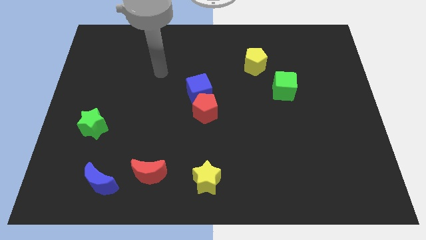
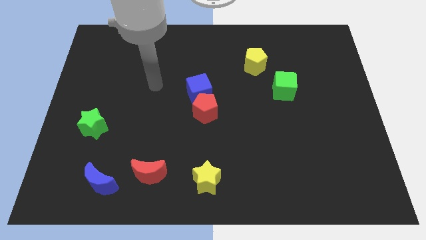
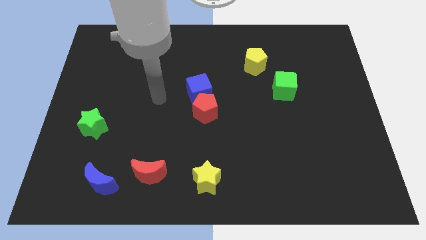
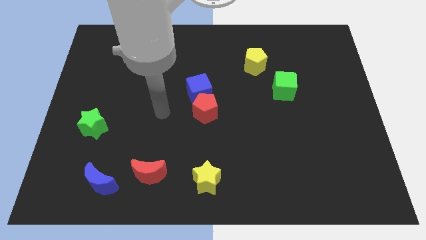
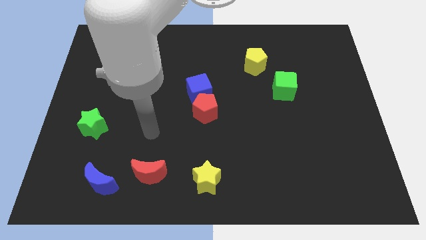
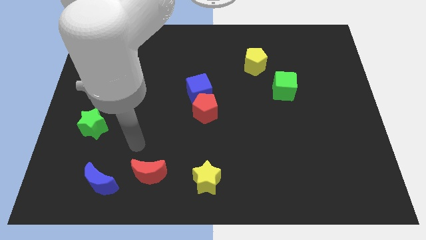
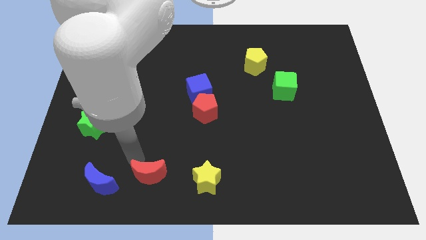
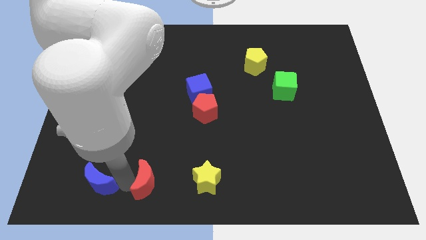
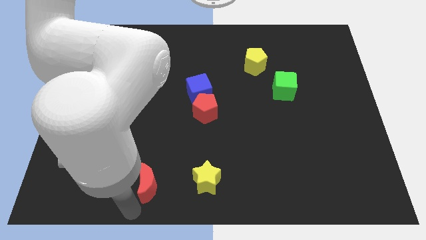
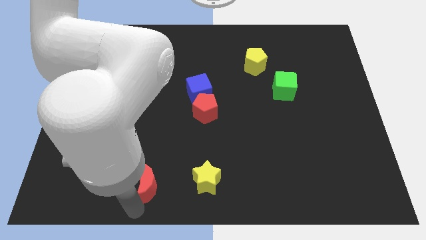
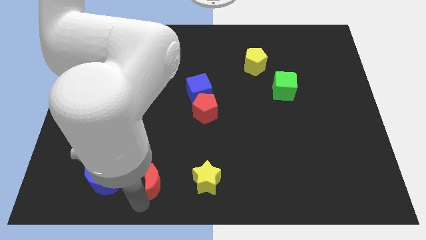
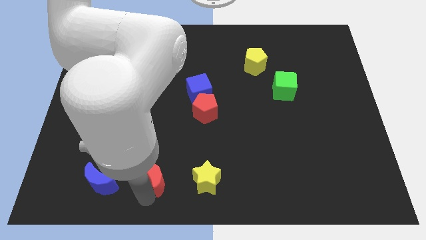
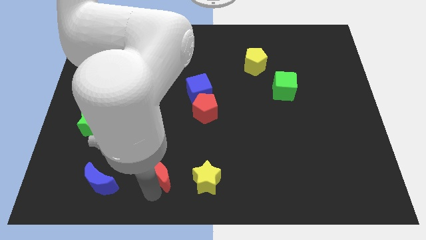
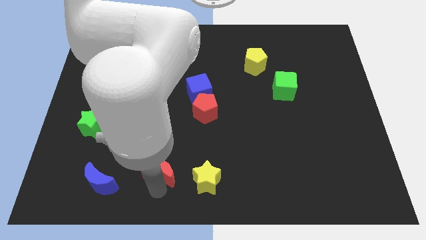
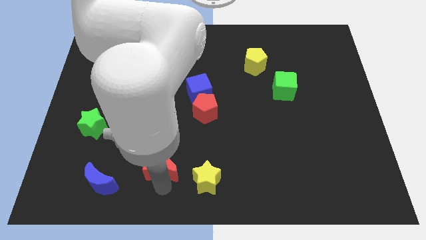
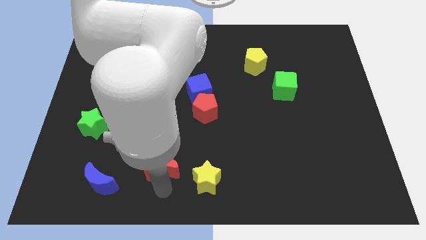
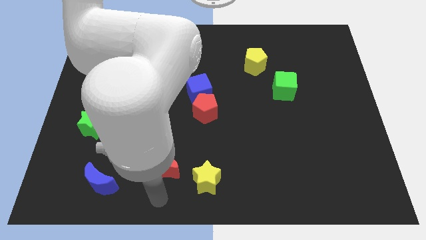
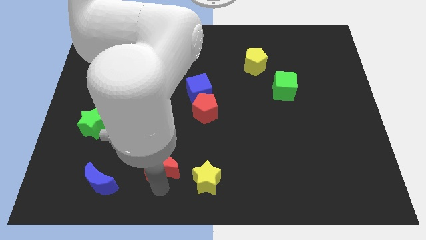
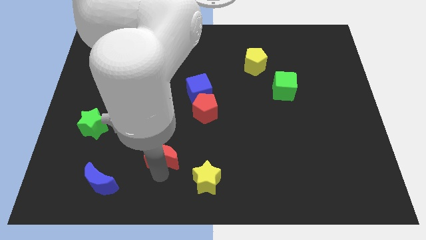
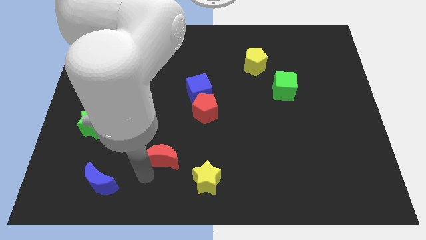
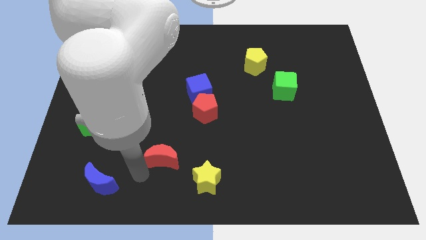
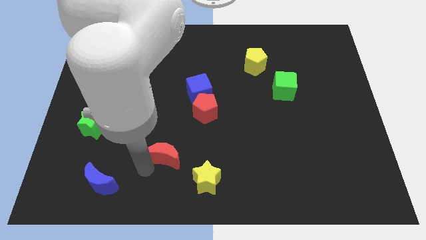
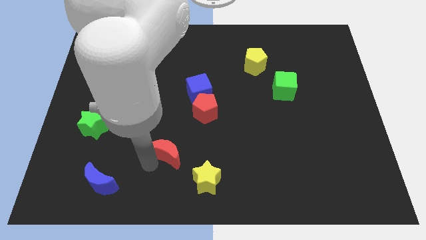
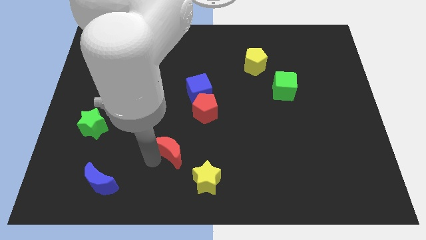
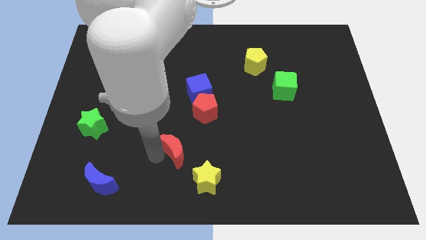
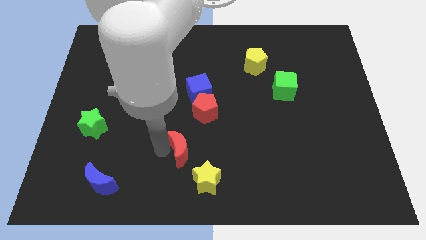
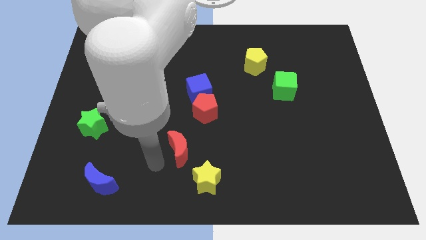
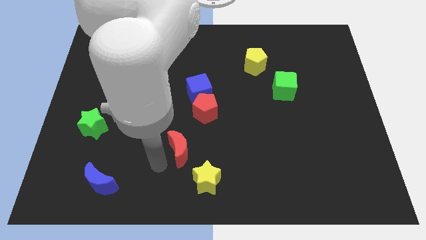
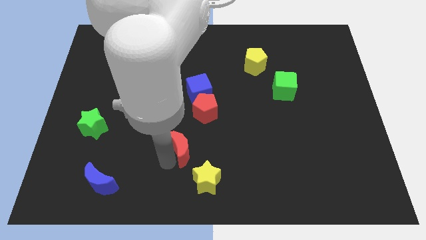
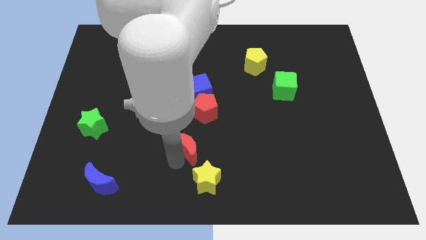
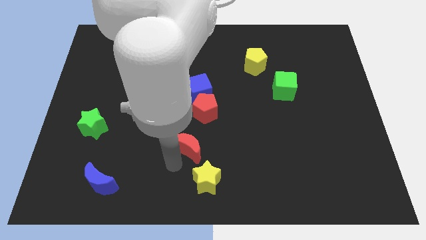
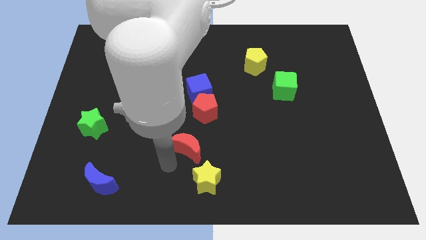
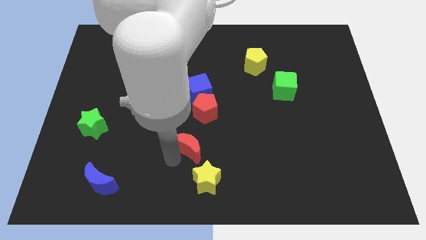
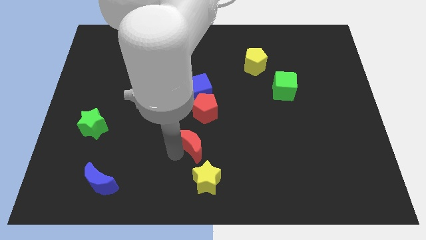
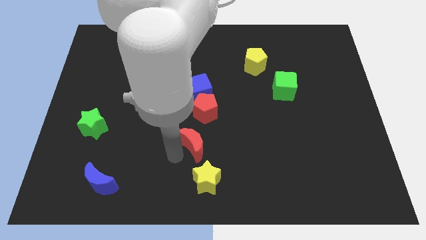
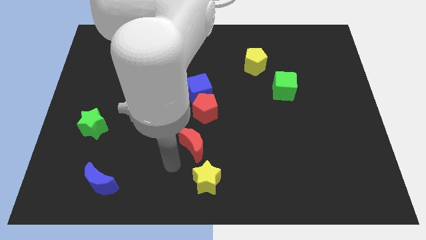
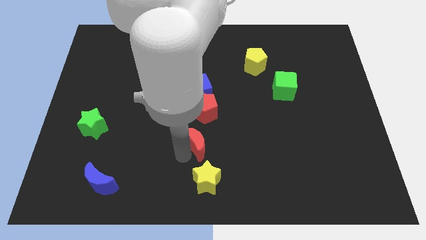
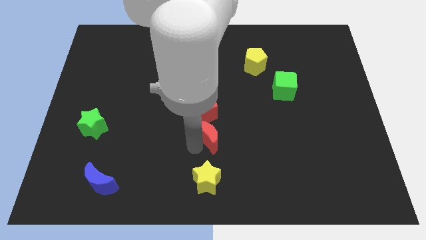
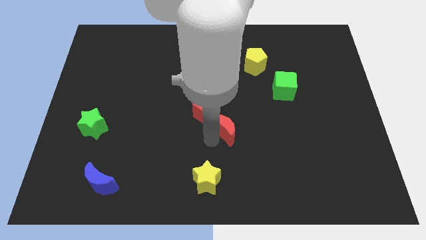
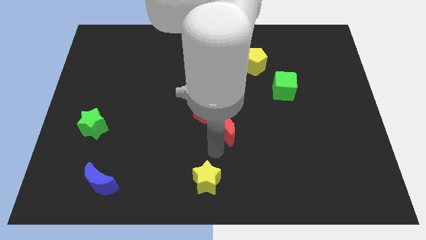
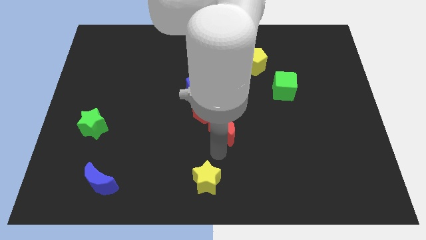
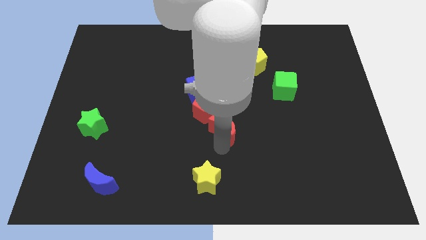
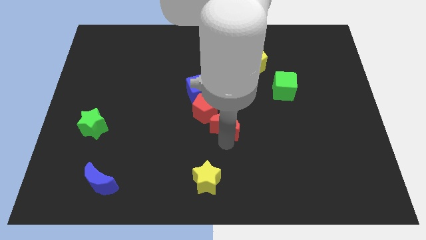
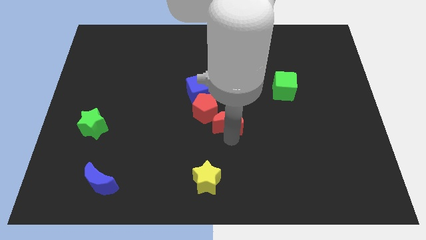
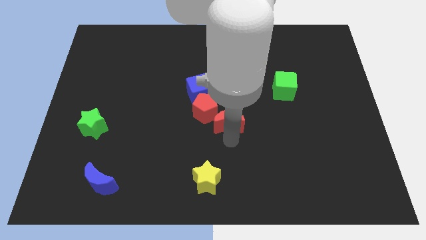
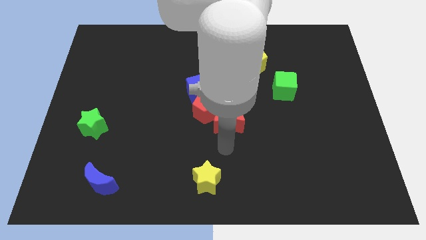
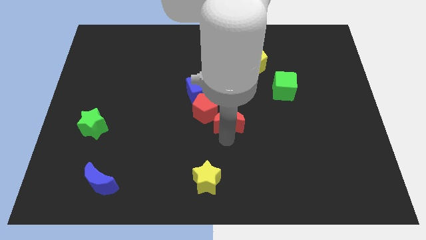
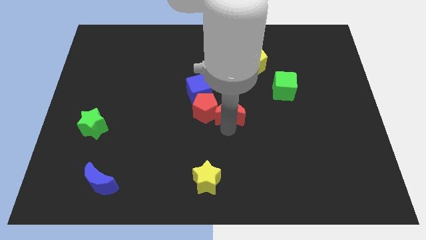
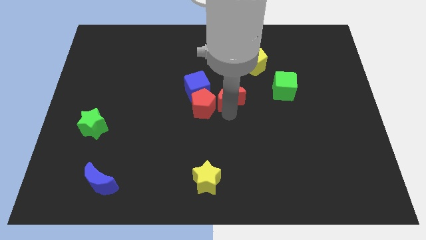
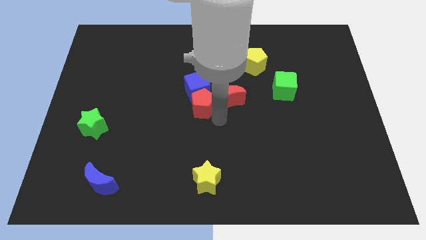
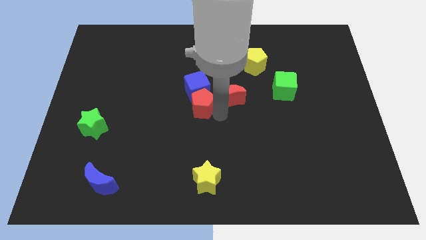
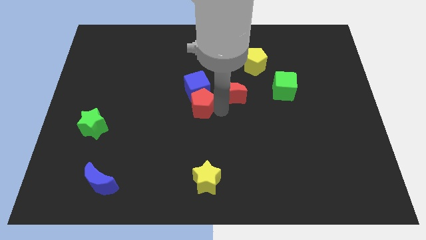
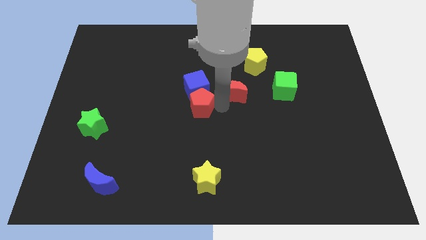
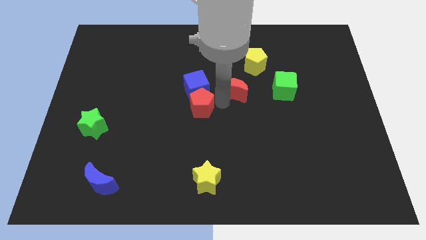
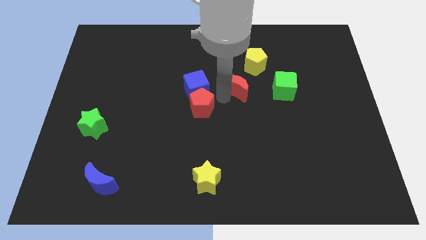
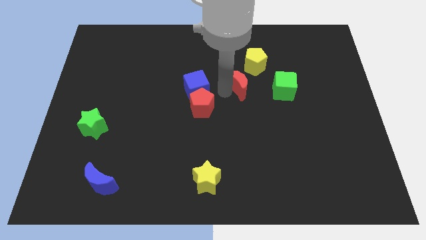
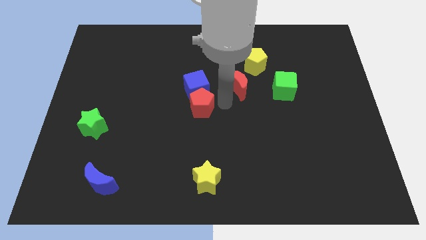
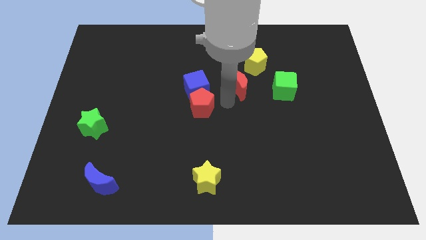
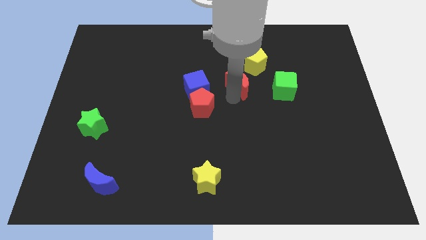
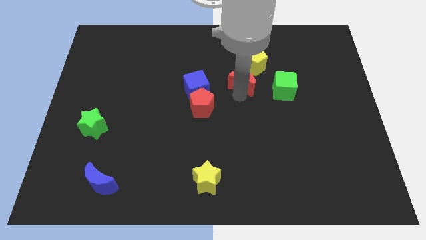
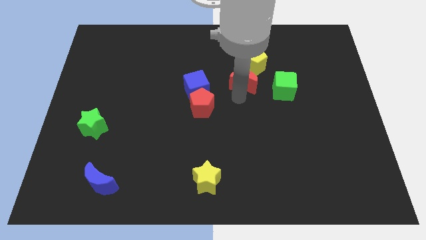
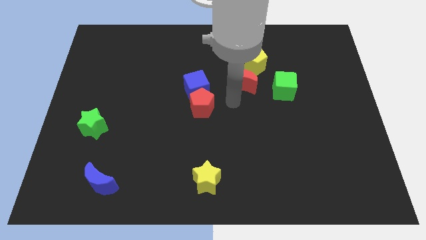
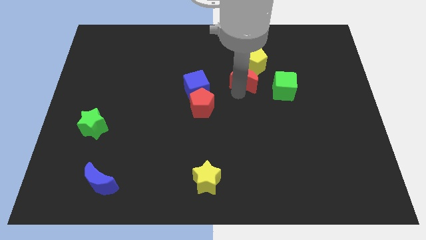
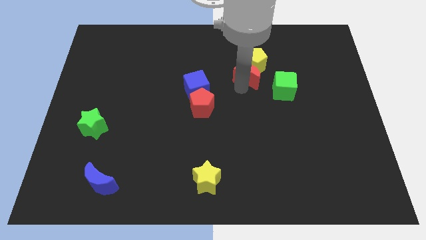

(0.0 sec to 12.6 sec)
move the red moon to the yellow pentagon

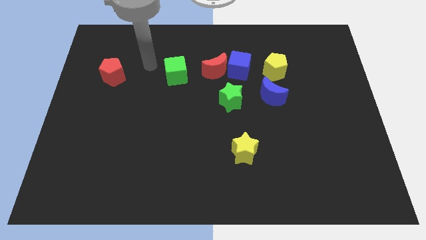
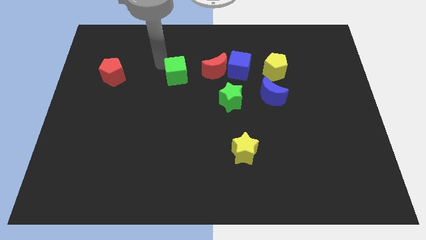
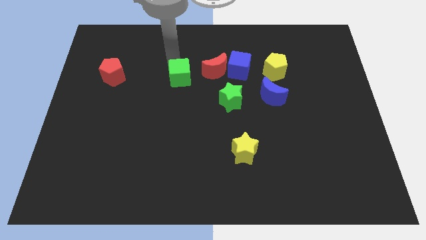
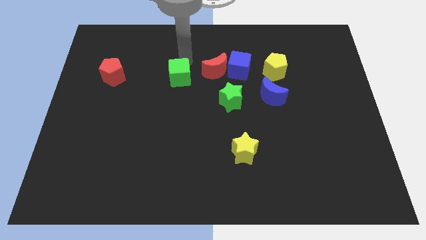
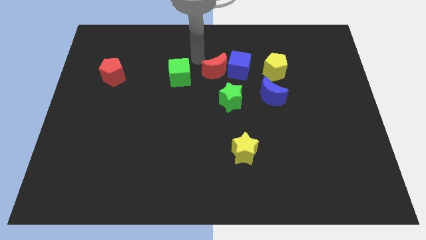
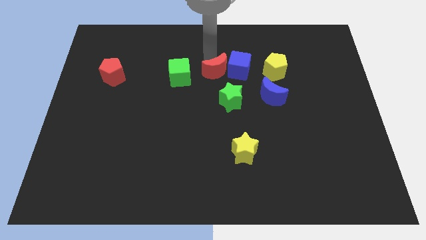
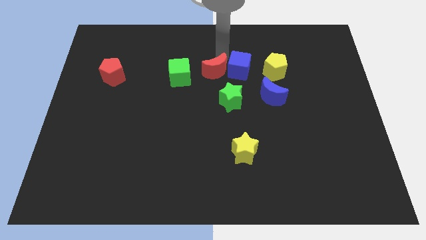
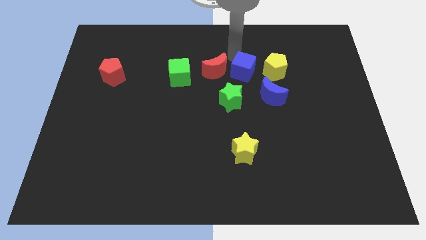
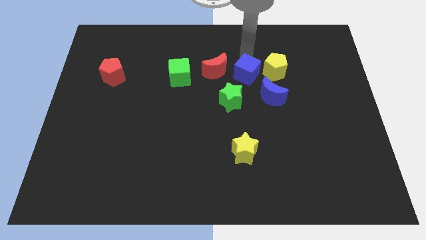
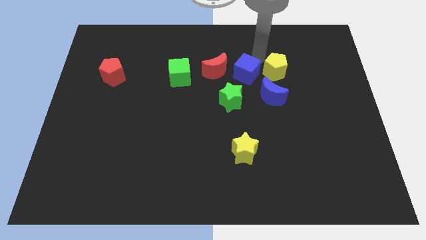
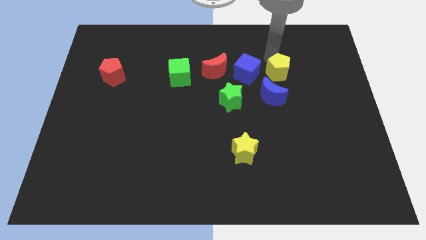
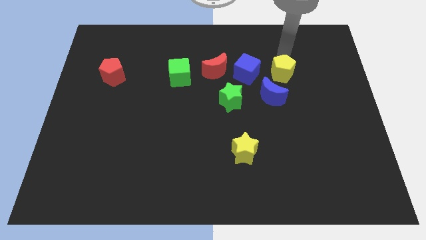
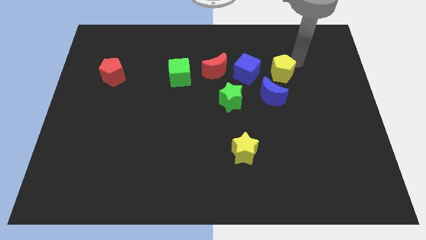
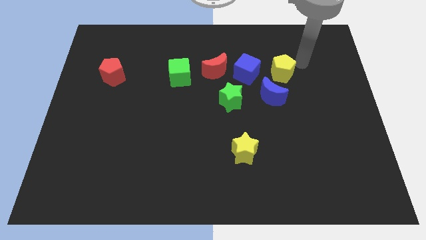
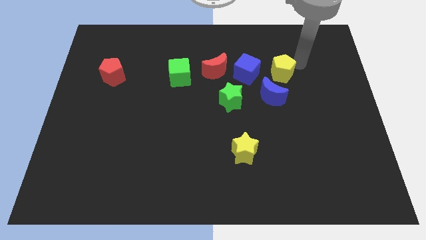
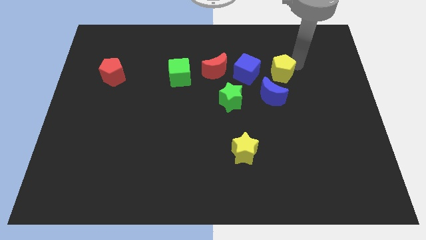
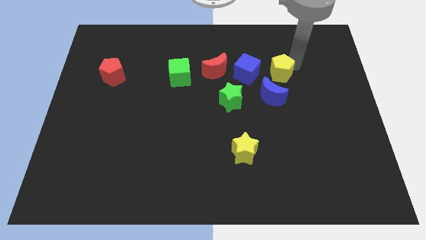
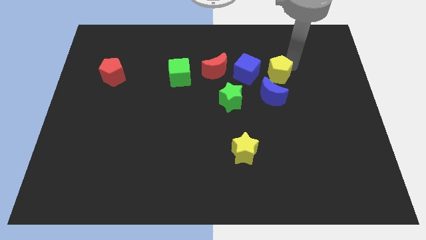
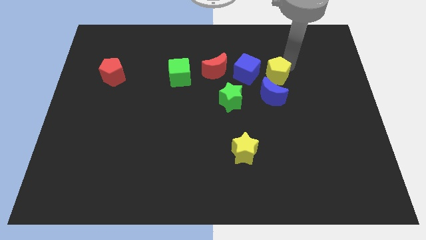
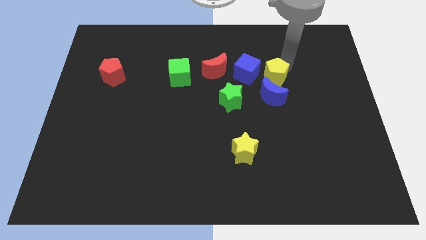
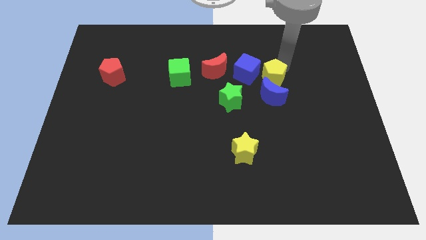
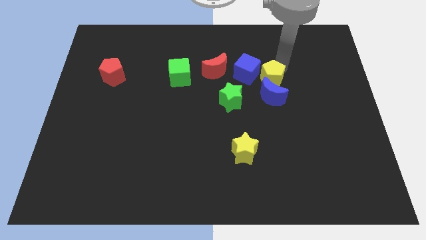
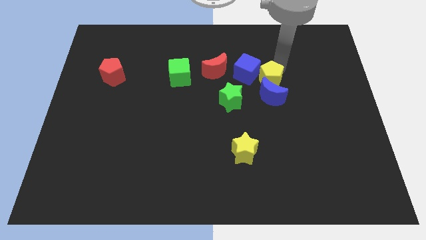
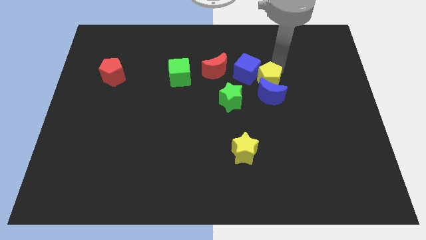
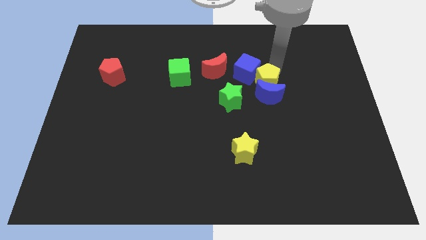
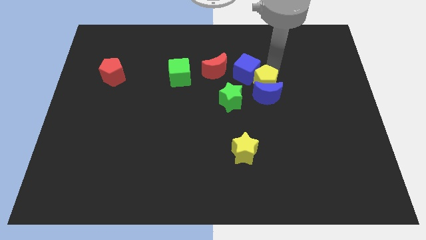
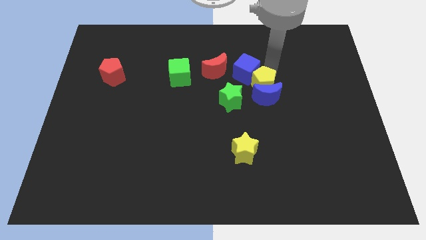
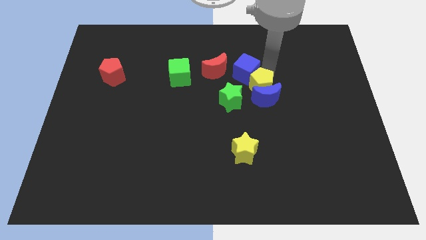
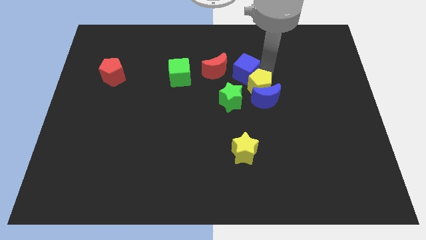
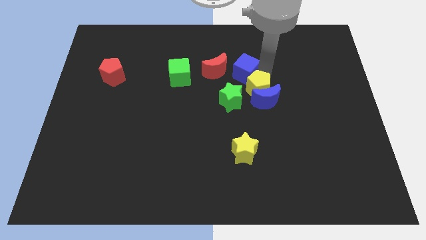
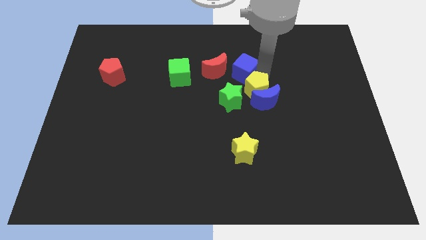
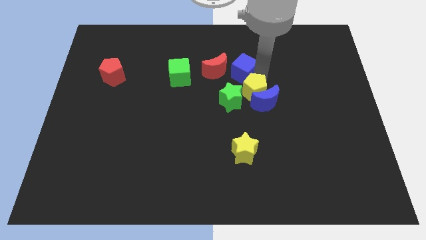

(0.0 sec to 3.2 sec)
push the yellow pentagon next to the green star
